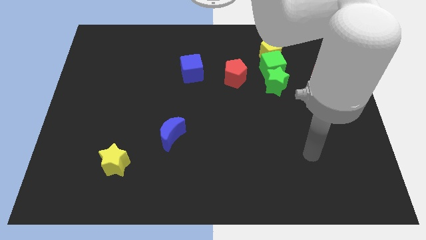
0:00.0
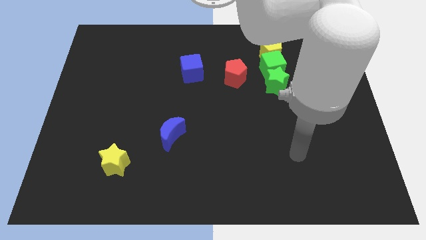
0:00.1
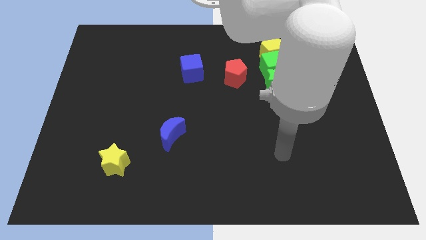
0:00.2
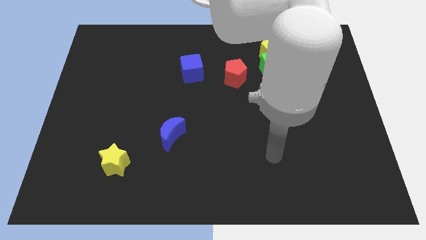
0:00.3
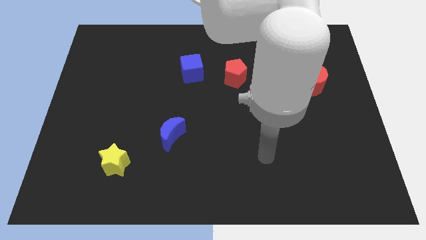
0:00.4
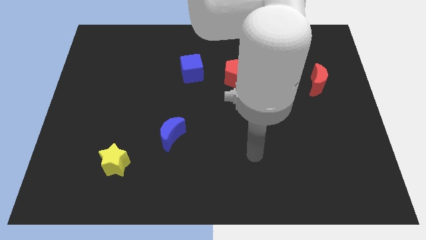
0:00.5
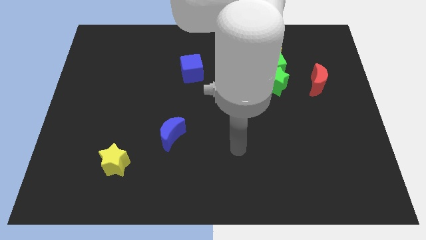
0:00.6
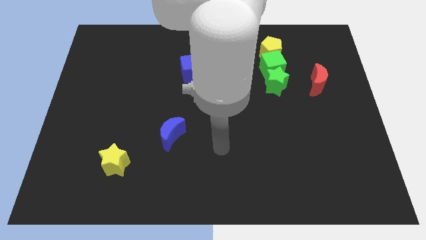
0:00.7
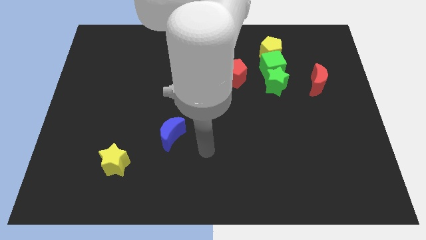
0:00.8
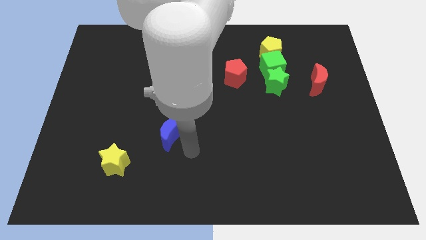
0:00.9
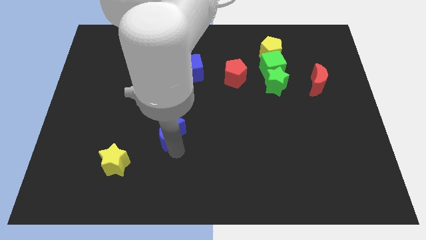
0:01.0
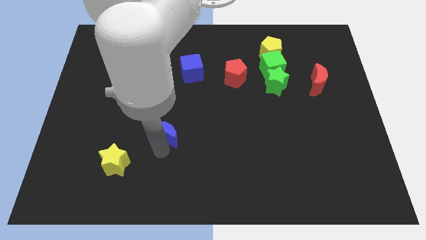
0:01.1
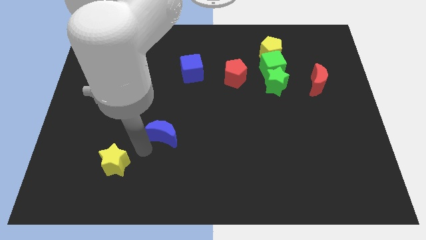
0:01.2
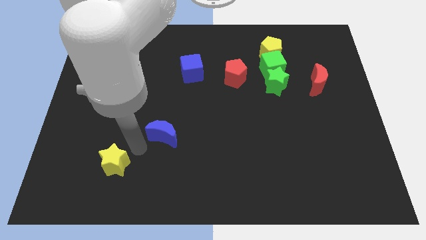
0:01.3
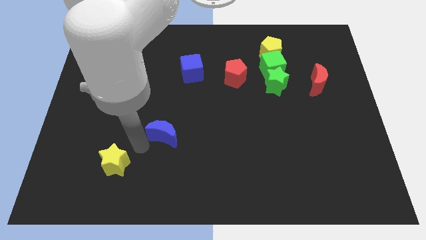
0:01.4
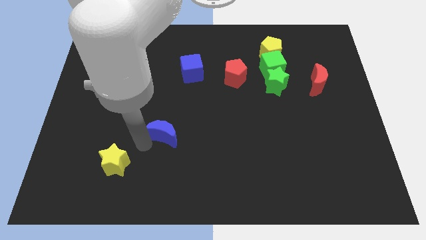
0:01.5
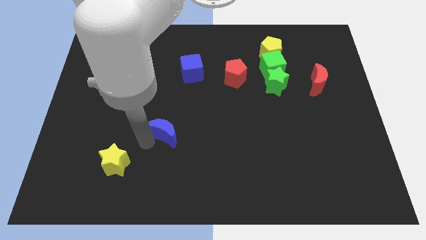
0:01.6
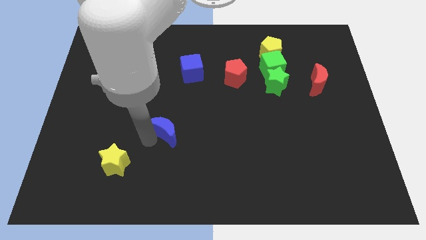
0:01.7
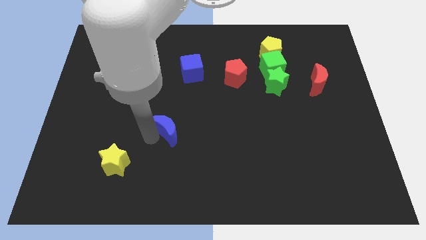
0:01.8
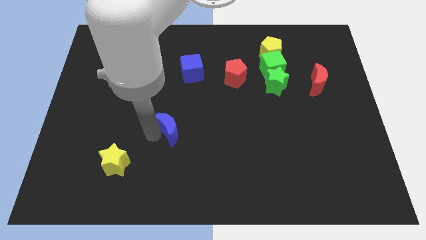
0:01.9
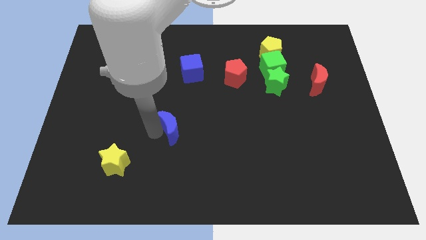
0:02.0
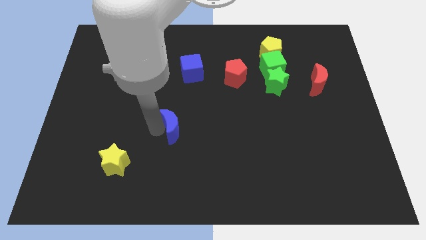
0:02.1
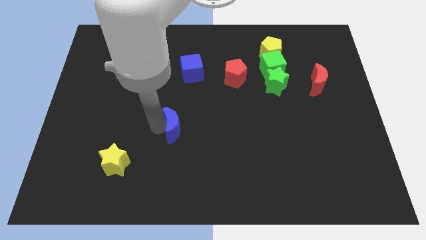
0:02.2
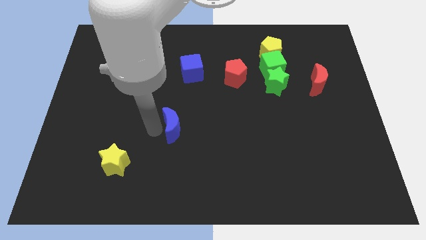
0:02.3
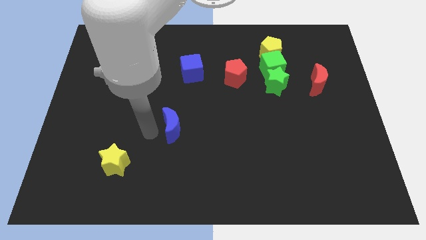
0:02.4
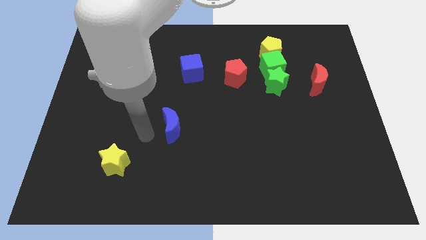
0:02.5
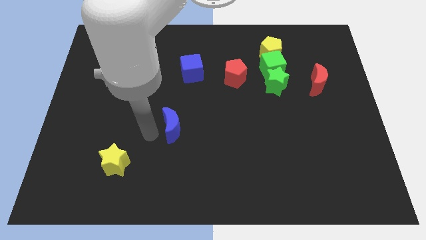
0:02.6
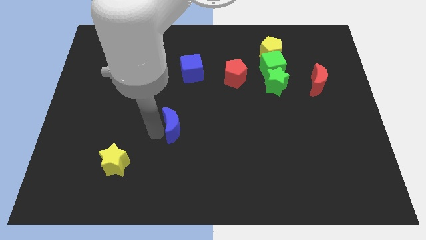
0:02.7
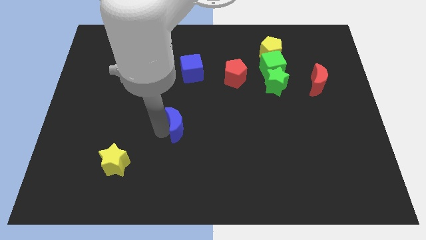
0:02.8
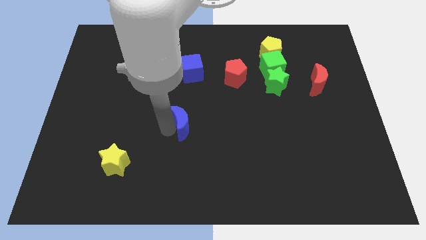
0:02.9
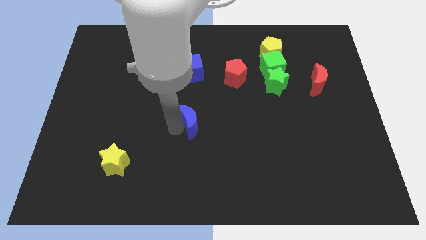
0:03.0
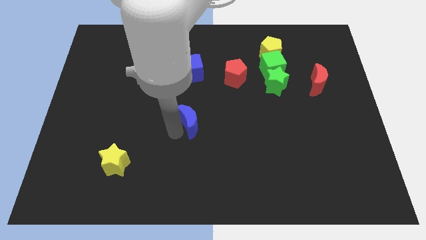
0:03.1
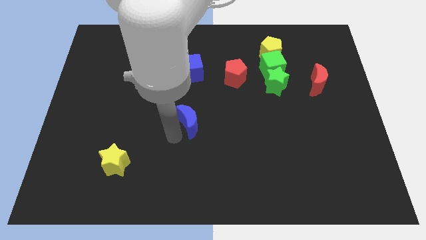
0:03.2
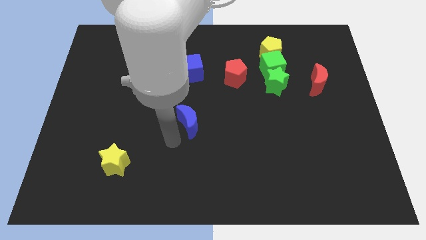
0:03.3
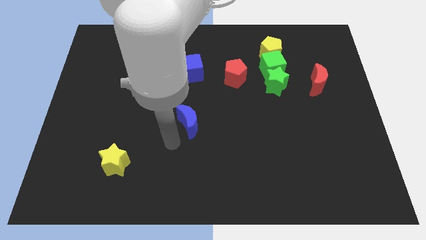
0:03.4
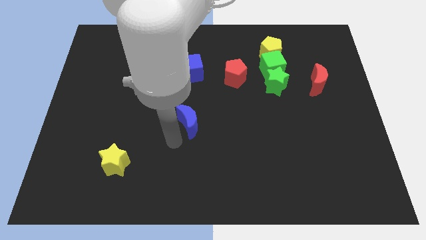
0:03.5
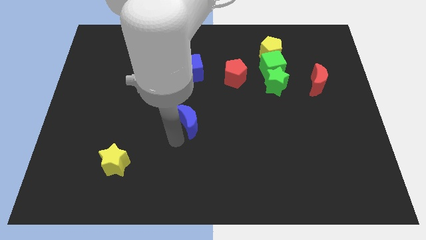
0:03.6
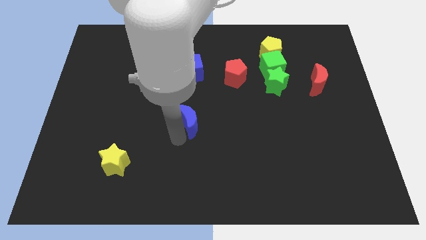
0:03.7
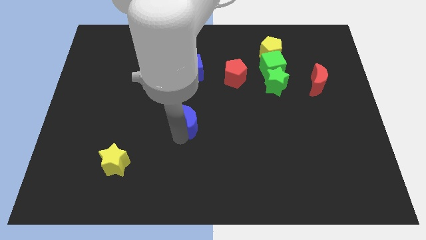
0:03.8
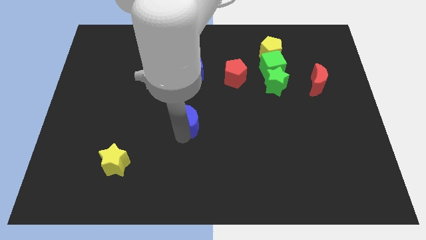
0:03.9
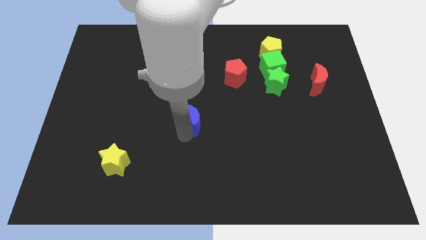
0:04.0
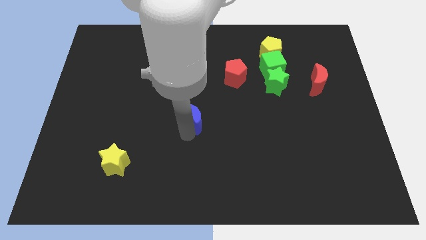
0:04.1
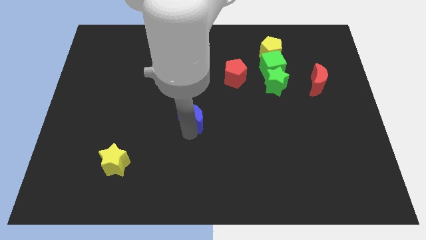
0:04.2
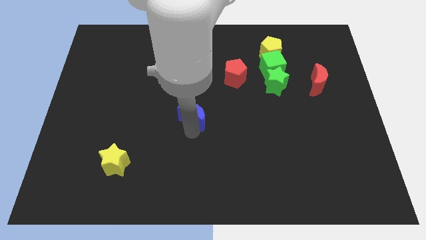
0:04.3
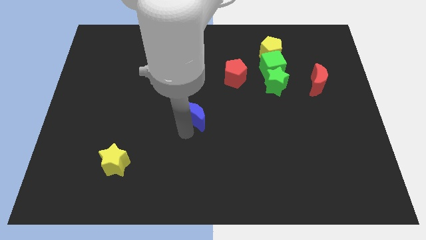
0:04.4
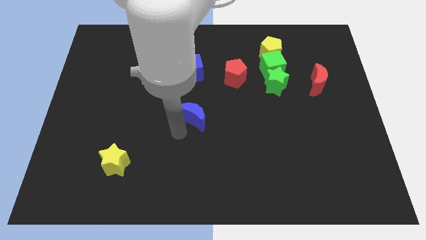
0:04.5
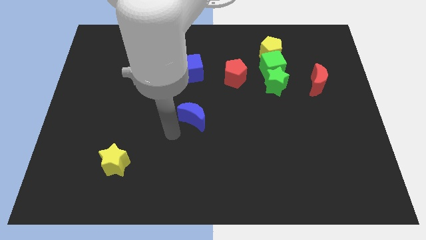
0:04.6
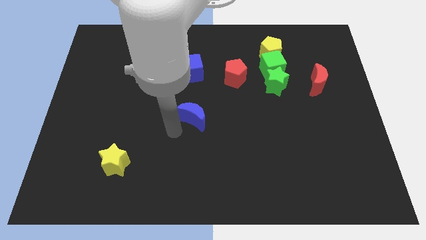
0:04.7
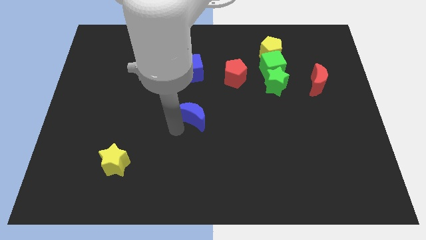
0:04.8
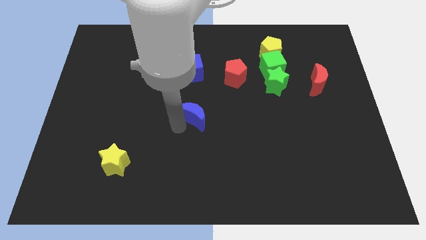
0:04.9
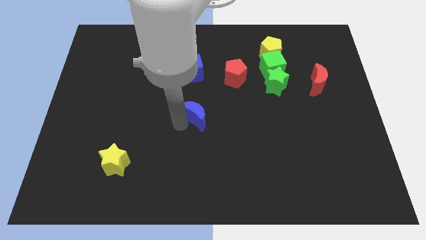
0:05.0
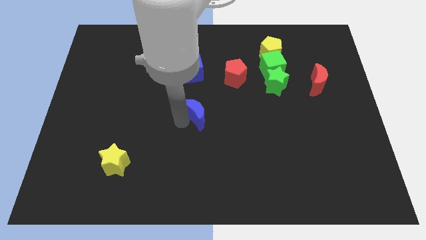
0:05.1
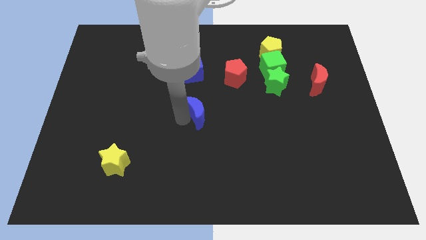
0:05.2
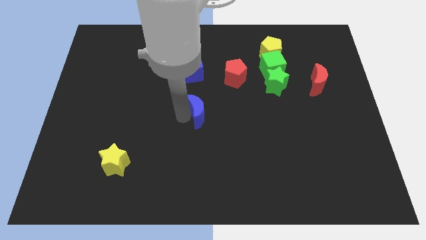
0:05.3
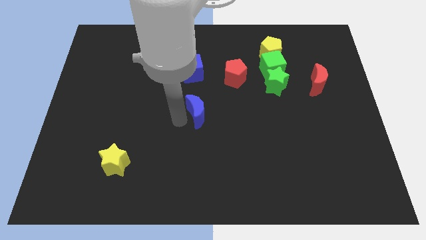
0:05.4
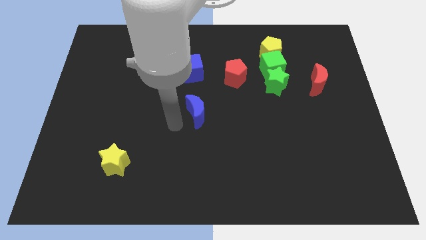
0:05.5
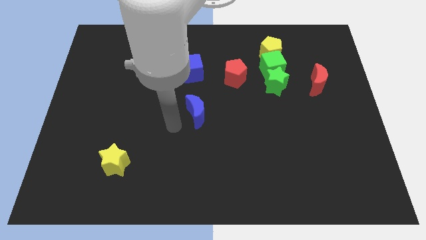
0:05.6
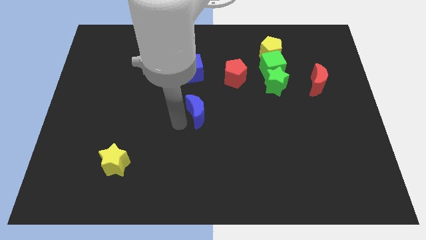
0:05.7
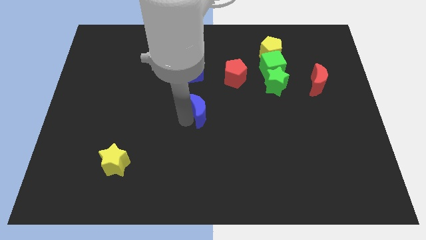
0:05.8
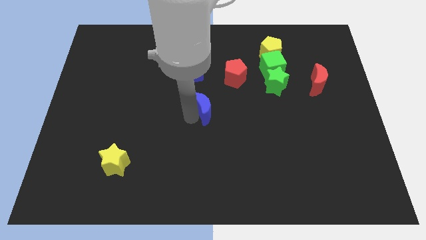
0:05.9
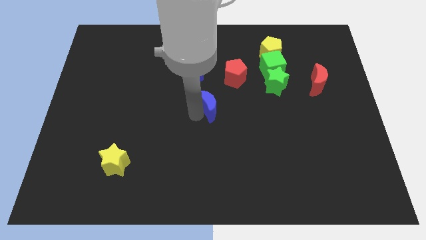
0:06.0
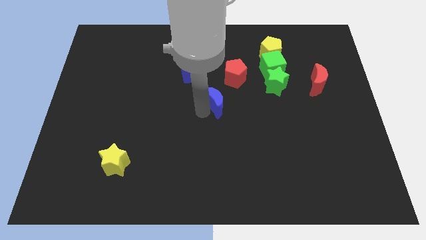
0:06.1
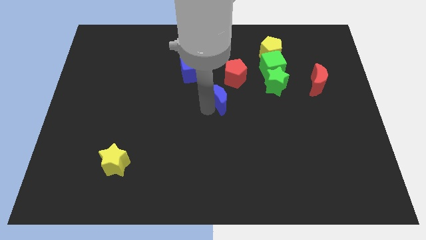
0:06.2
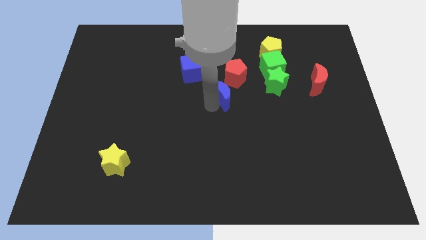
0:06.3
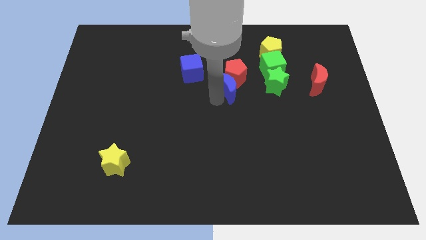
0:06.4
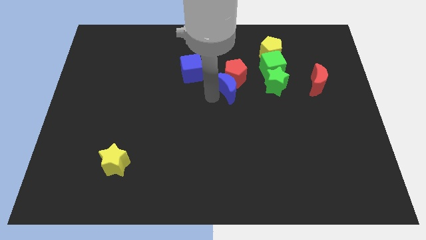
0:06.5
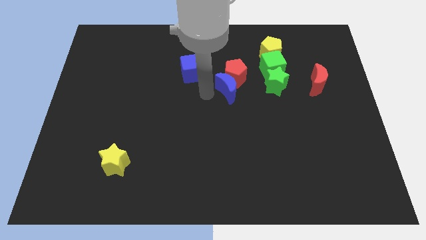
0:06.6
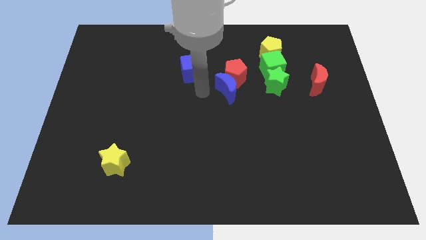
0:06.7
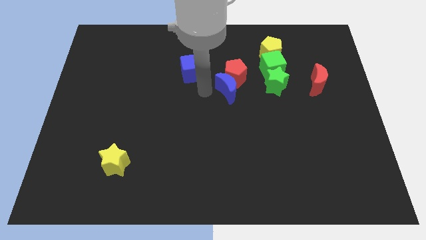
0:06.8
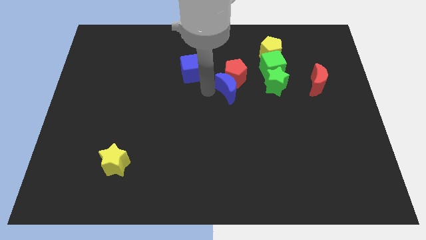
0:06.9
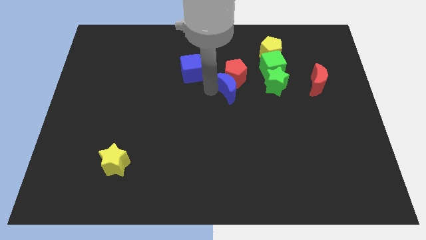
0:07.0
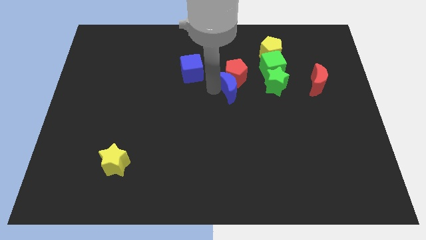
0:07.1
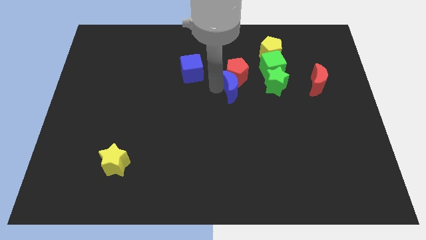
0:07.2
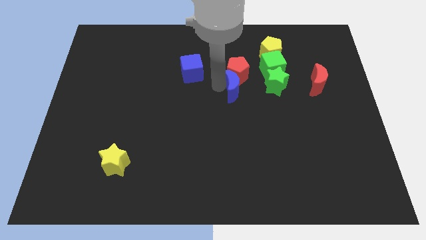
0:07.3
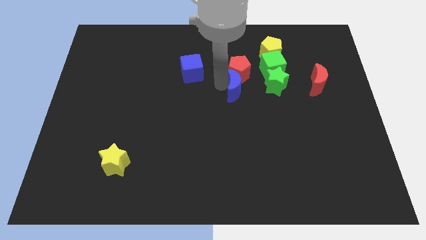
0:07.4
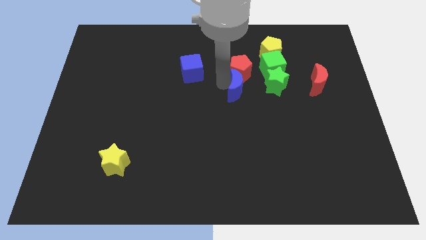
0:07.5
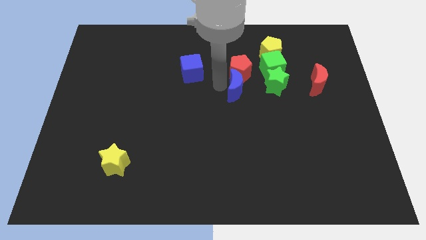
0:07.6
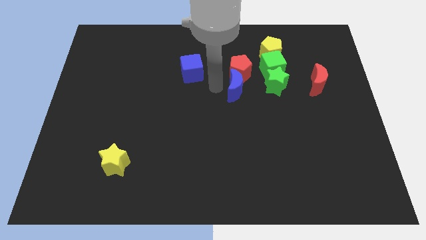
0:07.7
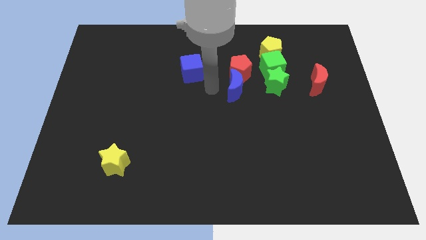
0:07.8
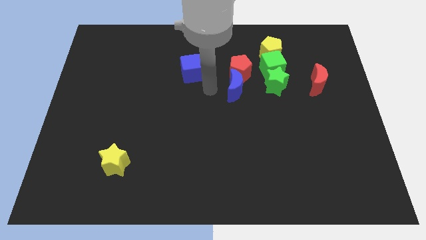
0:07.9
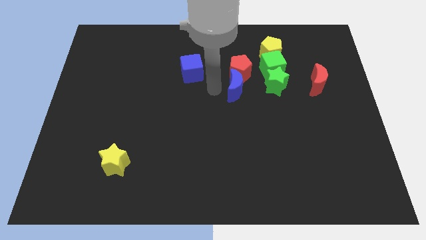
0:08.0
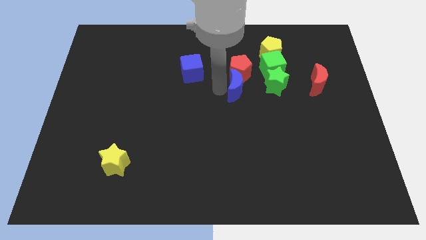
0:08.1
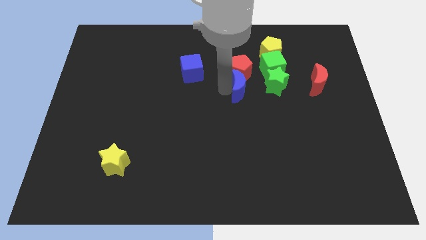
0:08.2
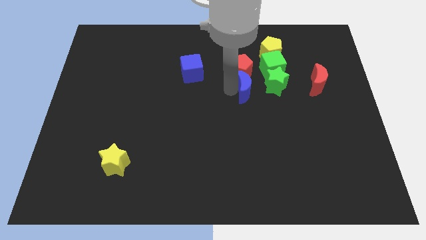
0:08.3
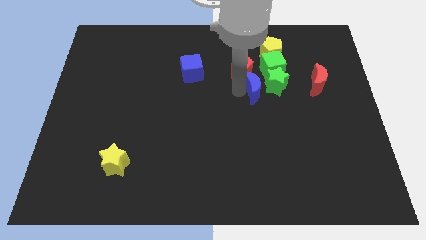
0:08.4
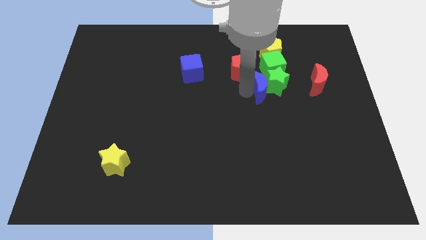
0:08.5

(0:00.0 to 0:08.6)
move the blue moon left of the red moon
